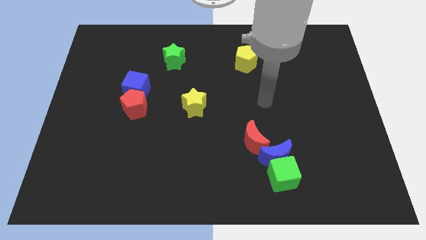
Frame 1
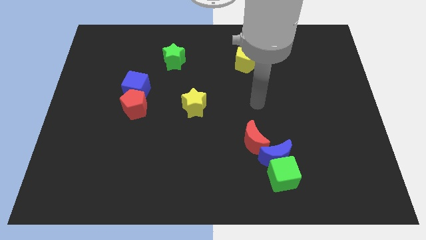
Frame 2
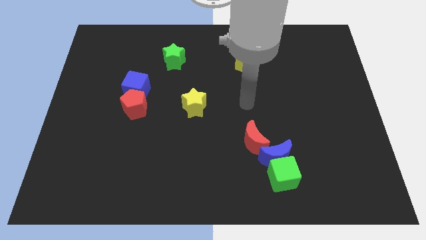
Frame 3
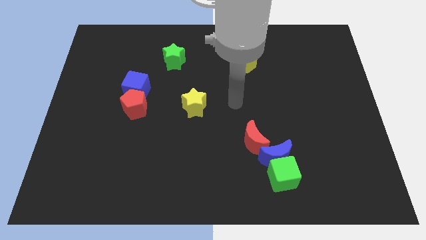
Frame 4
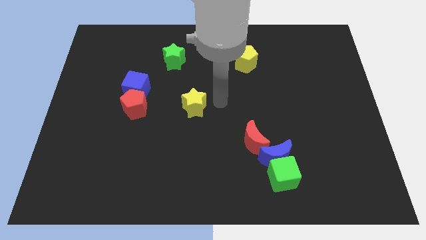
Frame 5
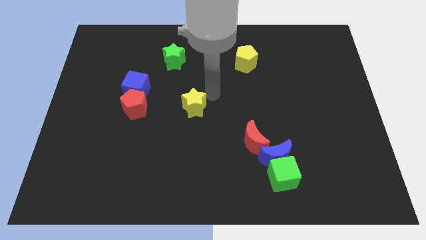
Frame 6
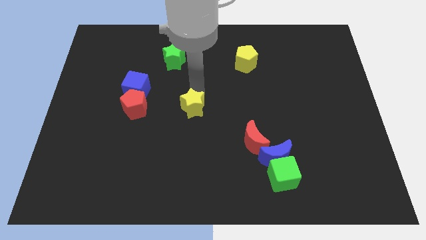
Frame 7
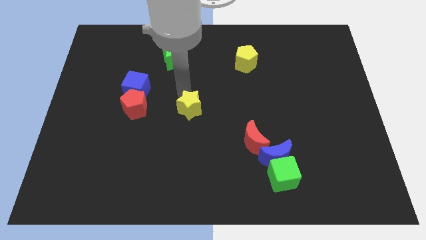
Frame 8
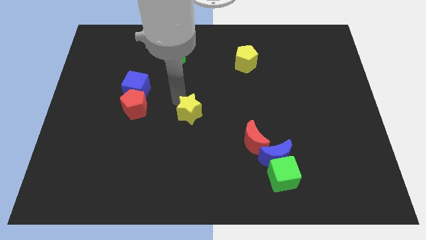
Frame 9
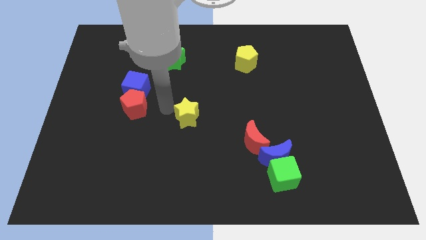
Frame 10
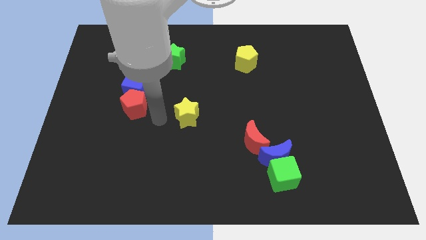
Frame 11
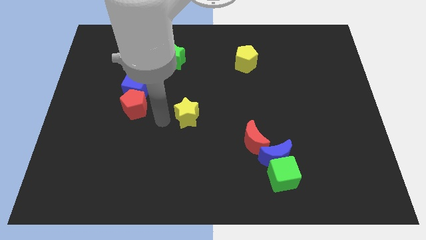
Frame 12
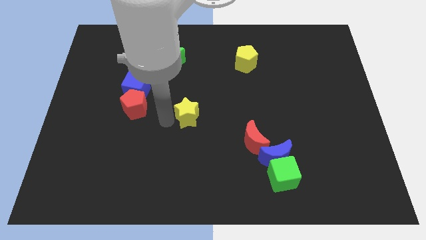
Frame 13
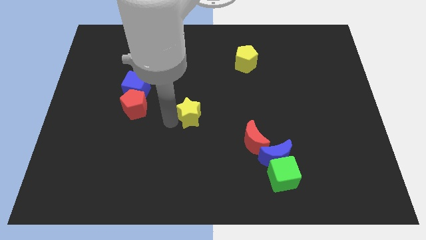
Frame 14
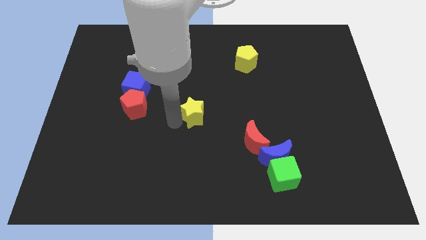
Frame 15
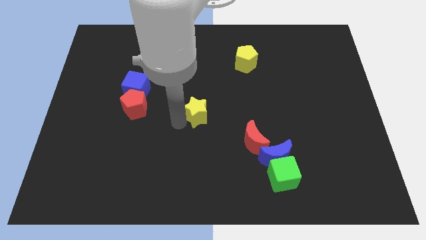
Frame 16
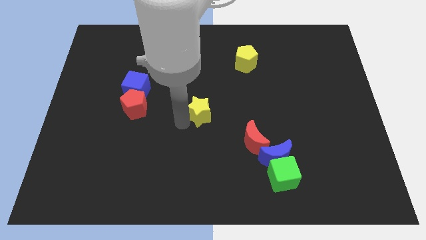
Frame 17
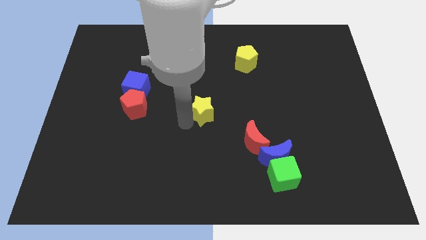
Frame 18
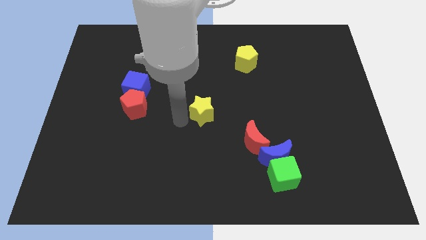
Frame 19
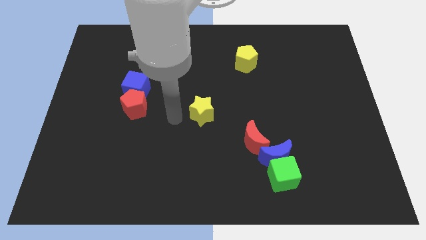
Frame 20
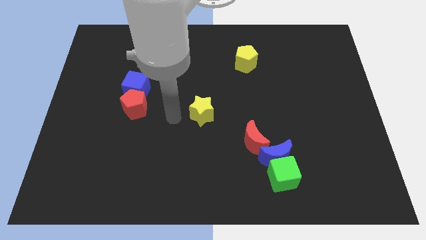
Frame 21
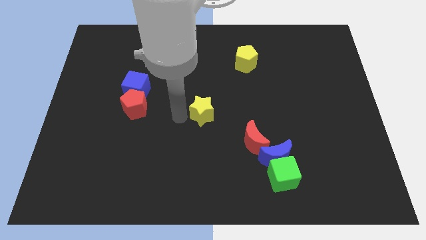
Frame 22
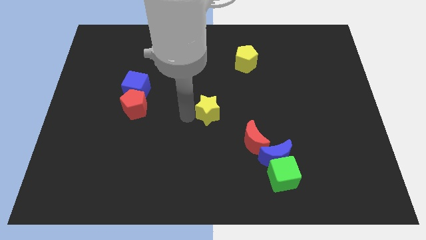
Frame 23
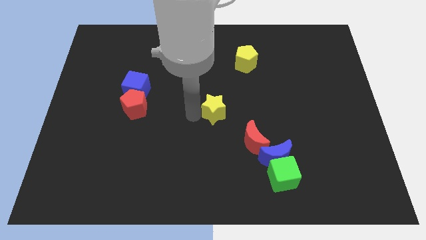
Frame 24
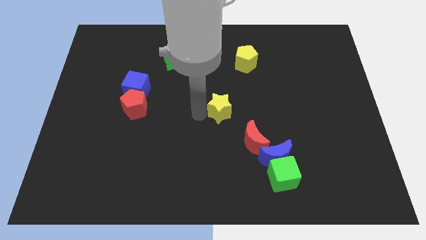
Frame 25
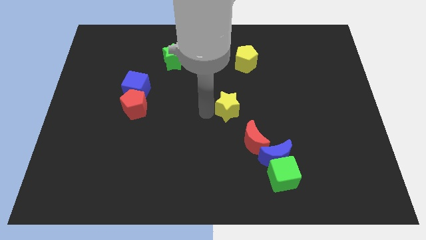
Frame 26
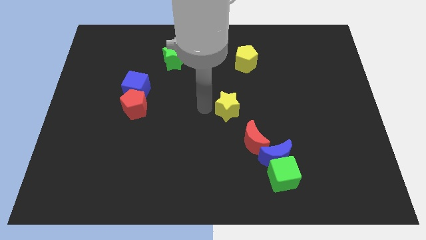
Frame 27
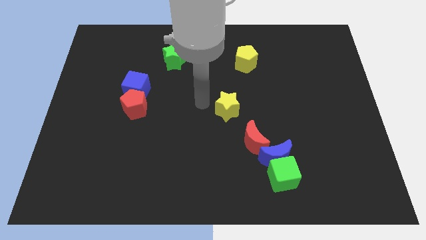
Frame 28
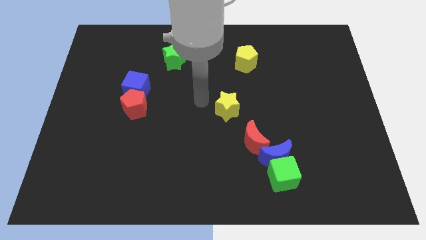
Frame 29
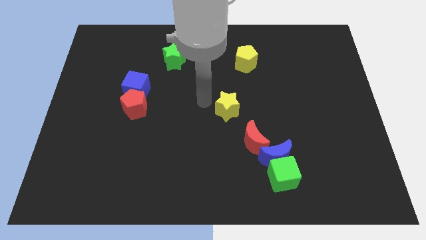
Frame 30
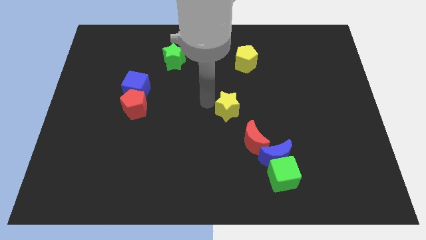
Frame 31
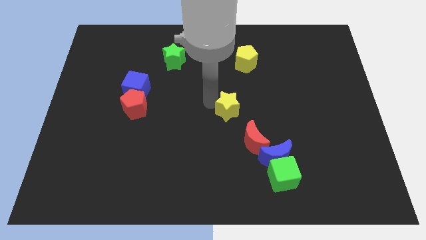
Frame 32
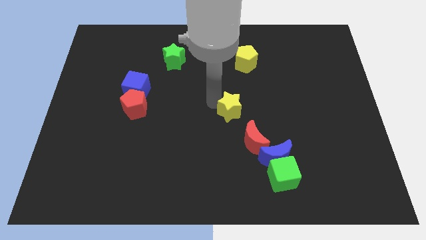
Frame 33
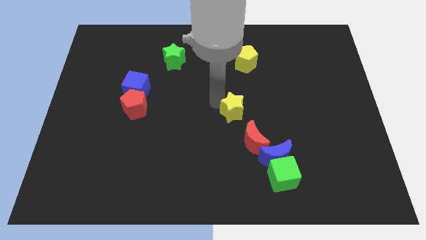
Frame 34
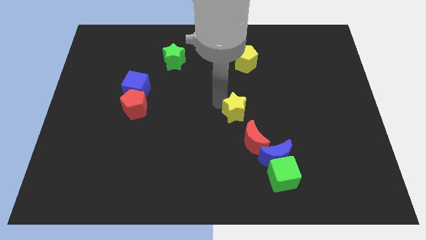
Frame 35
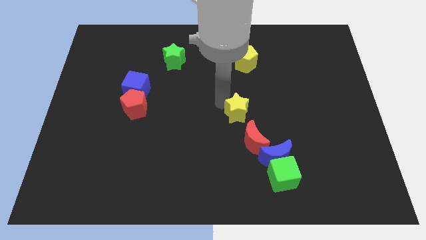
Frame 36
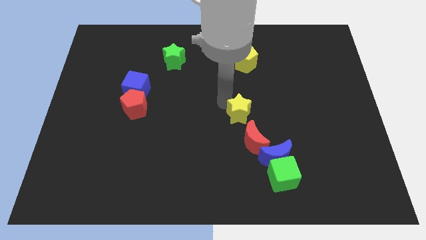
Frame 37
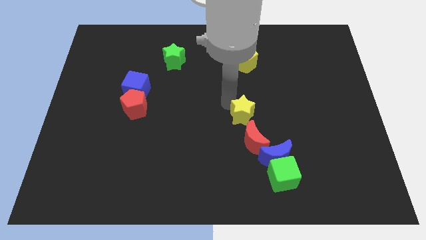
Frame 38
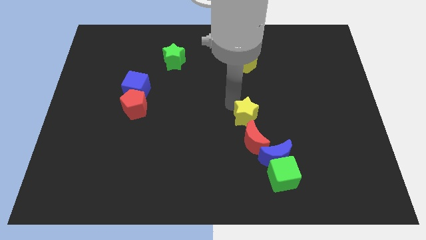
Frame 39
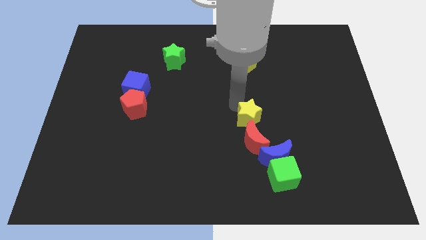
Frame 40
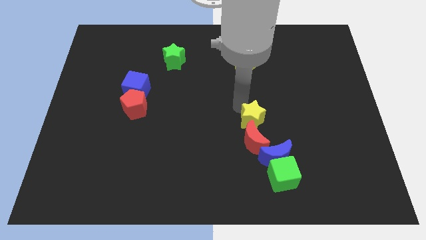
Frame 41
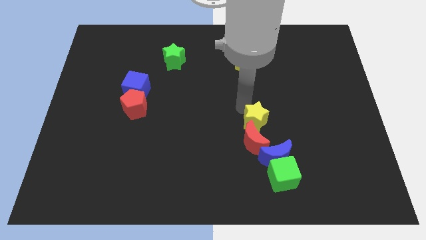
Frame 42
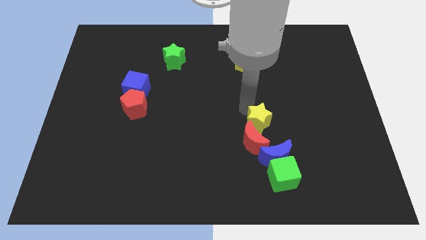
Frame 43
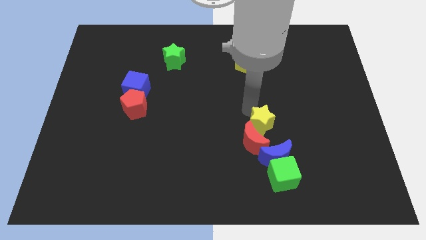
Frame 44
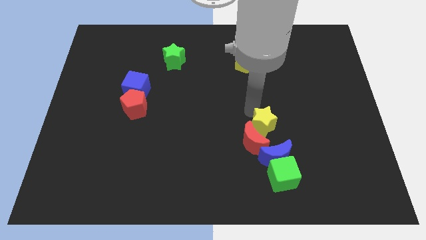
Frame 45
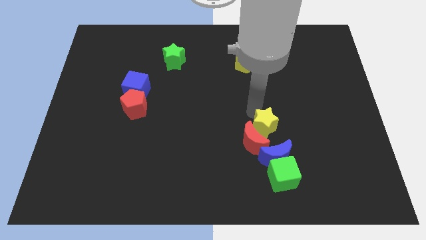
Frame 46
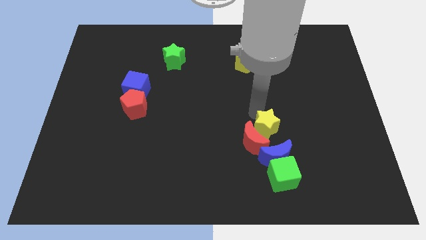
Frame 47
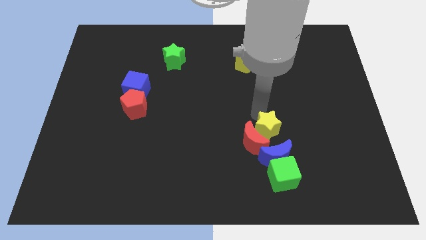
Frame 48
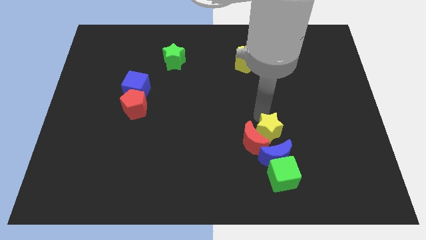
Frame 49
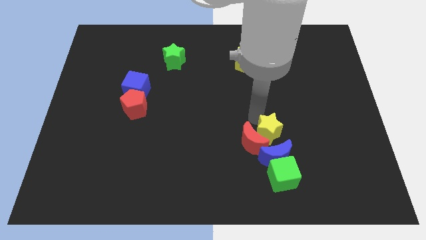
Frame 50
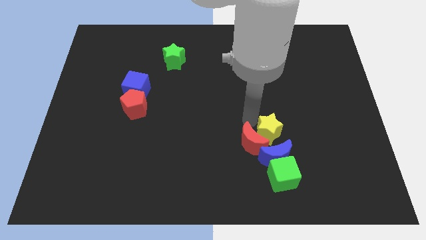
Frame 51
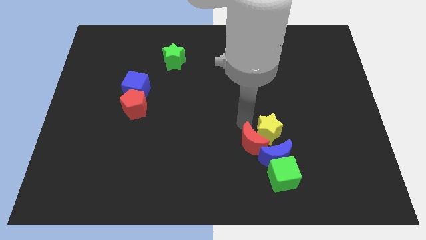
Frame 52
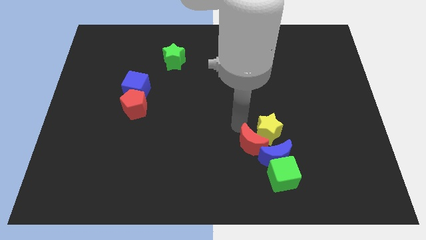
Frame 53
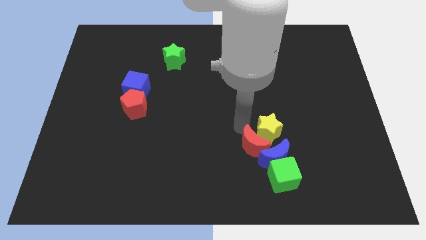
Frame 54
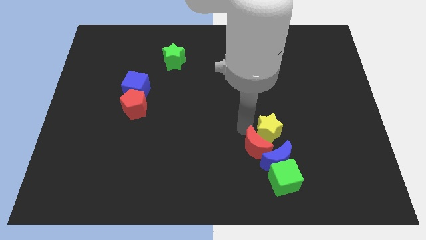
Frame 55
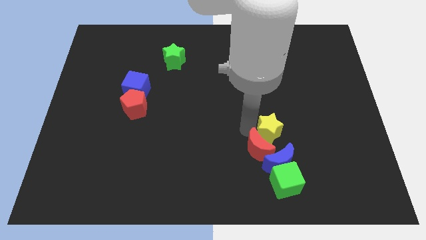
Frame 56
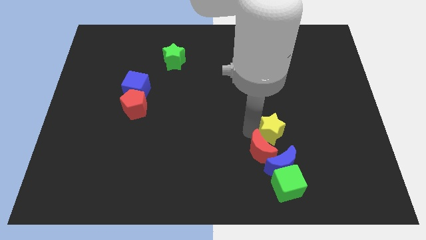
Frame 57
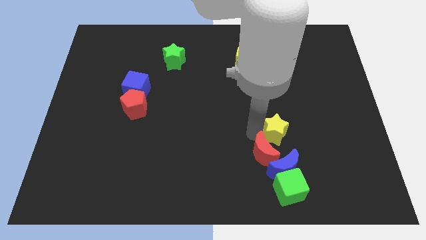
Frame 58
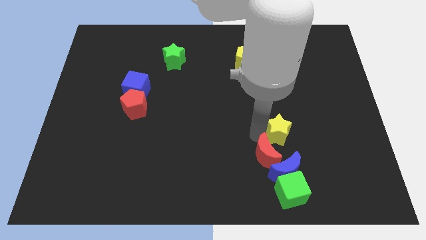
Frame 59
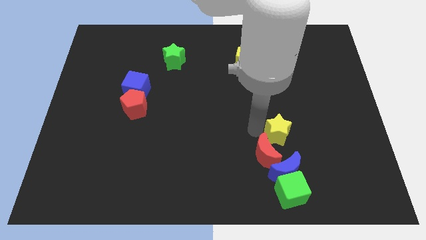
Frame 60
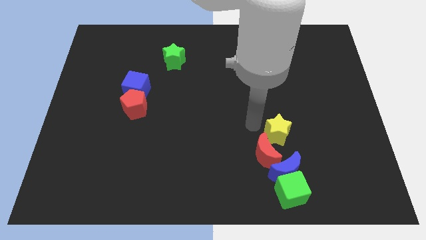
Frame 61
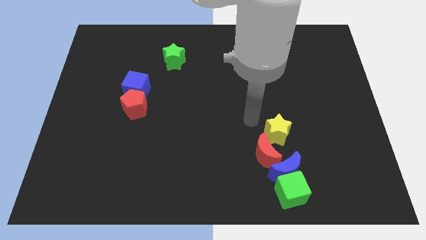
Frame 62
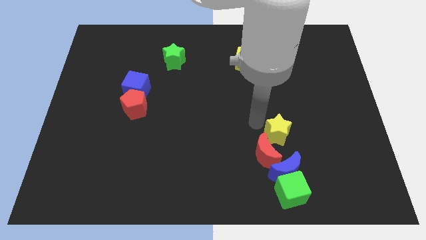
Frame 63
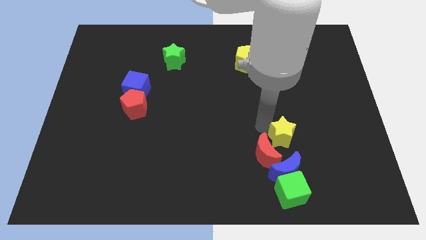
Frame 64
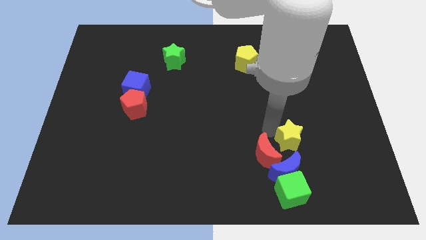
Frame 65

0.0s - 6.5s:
push the yellow star diagonally up and to the right of the blue moon
